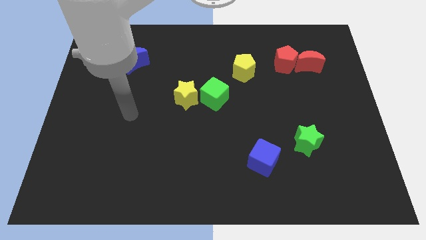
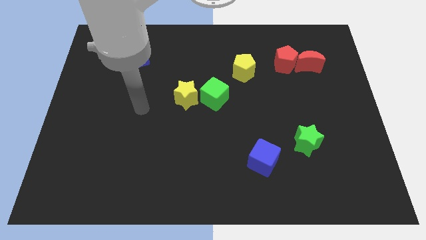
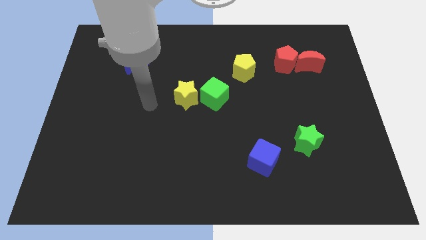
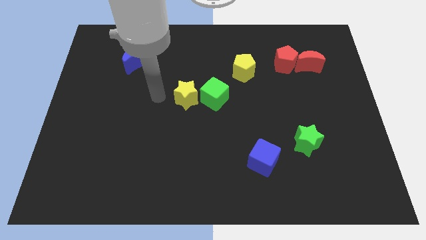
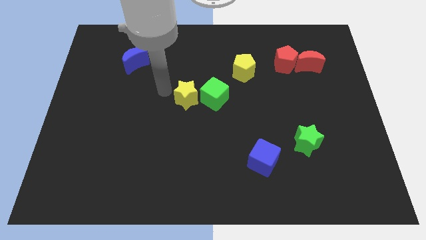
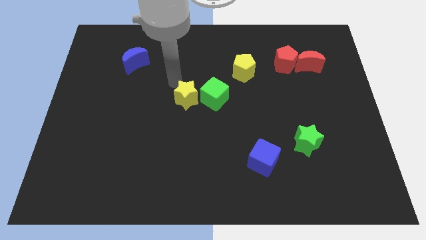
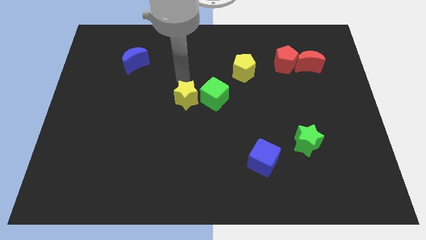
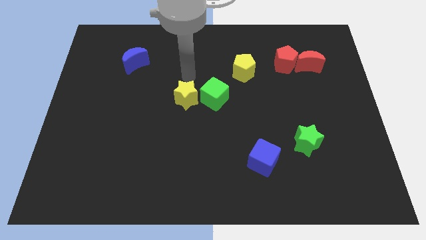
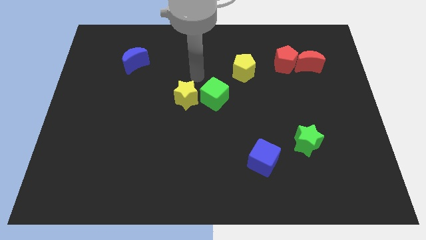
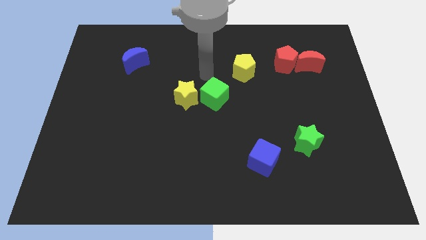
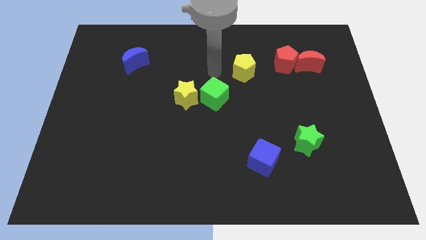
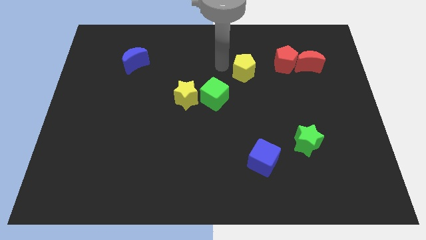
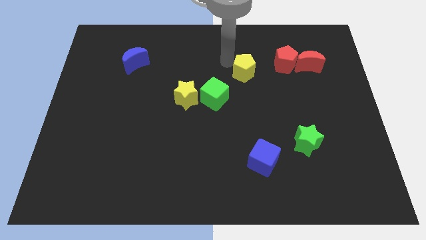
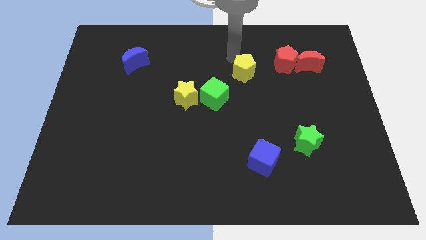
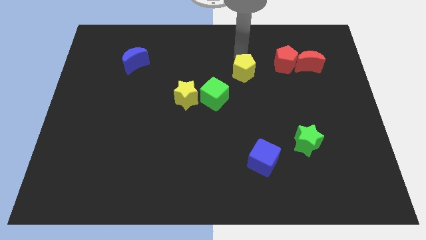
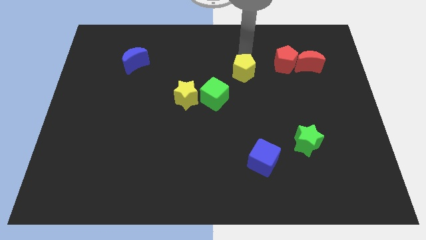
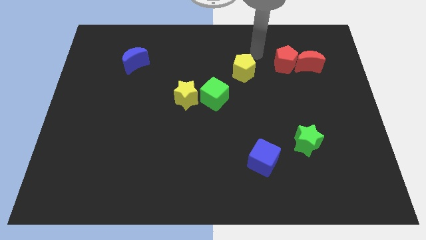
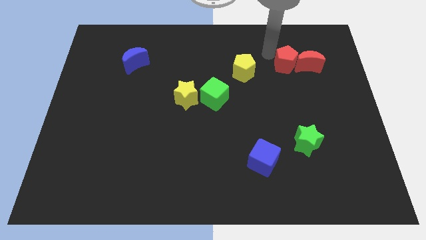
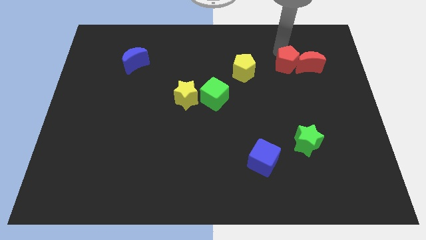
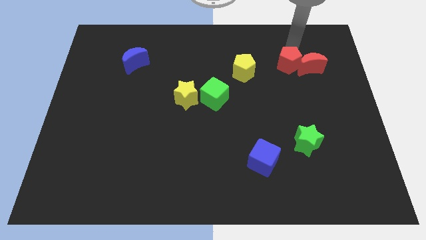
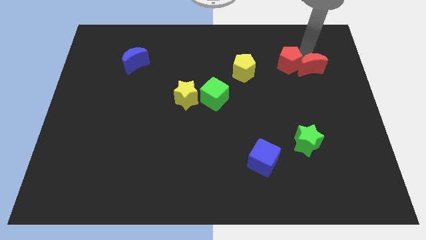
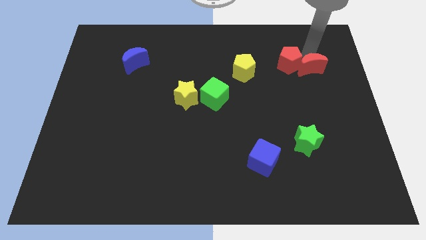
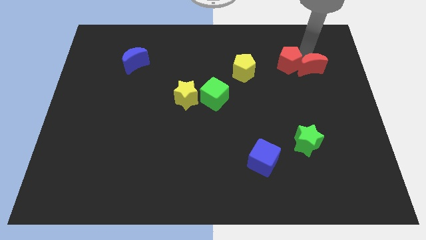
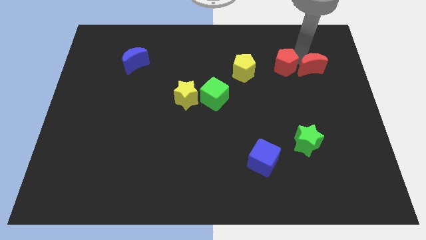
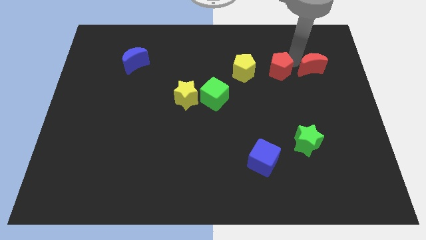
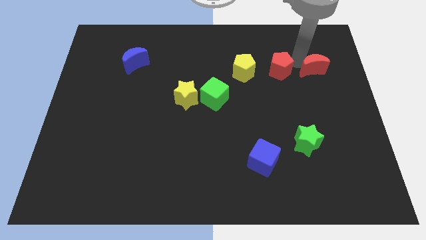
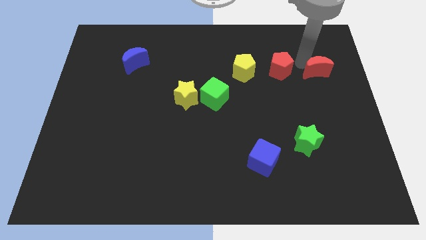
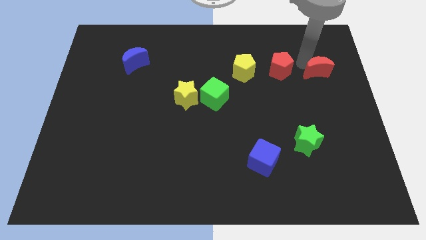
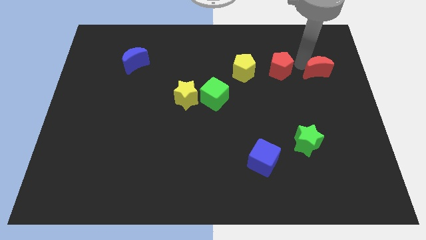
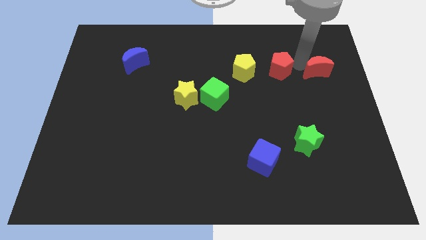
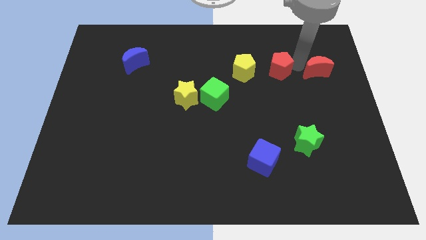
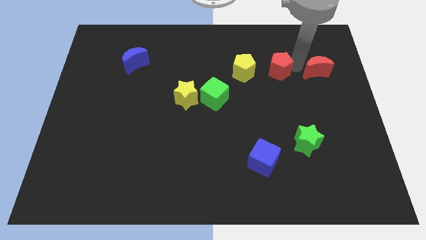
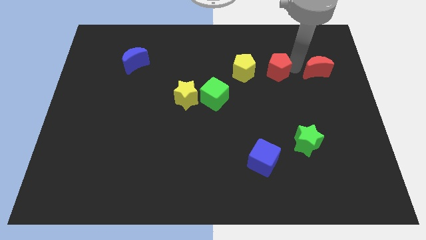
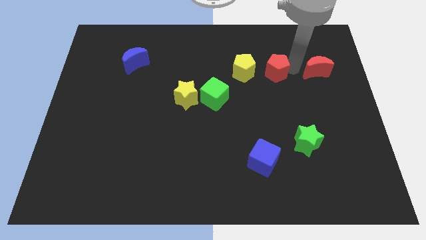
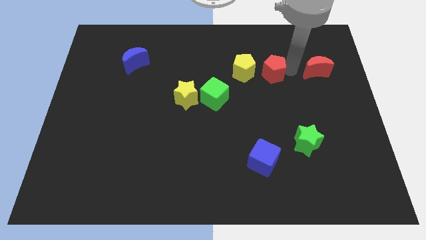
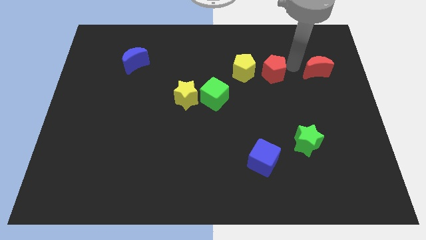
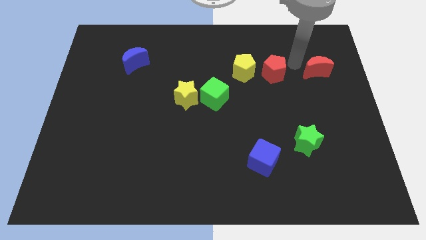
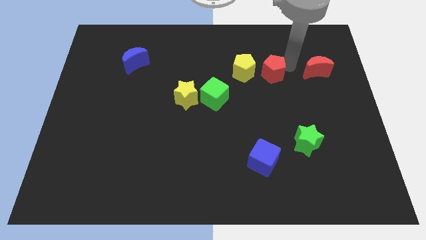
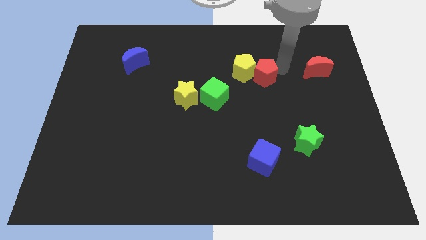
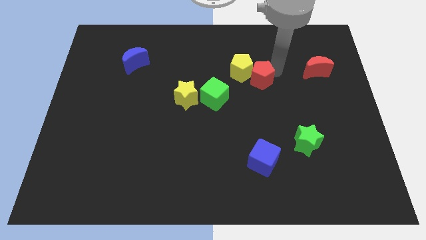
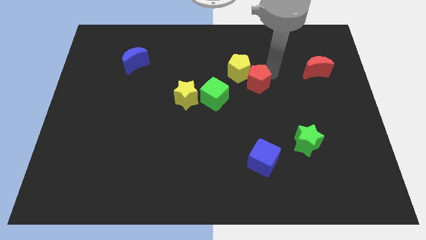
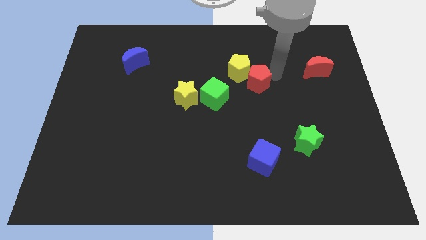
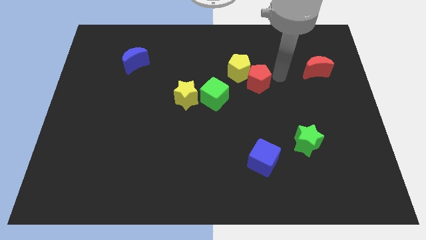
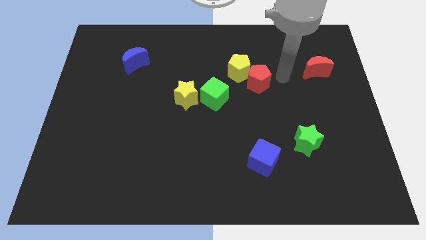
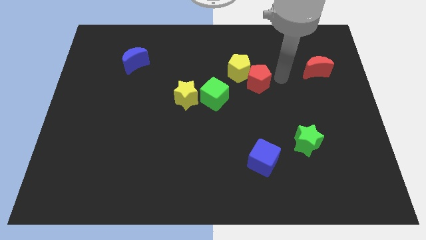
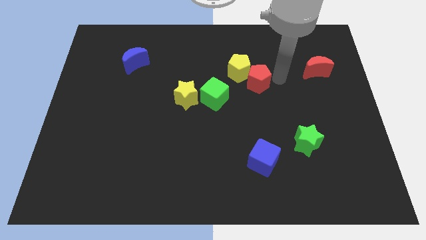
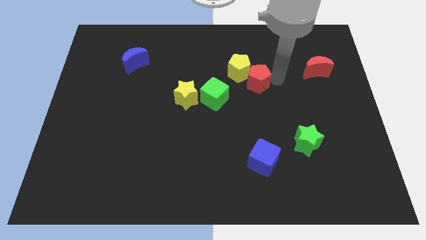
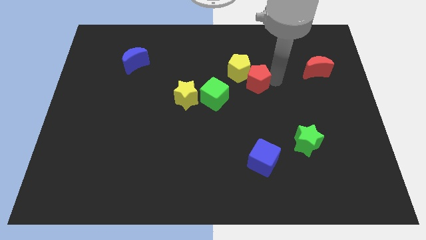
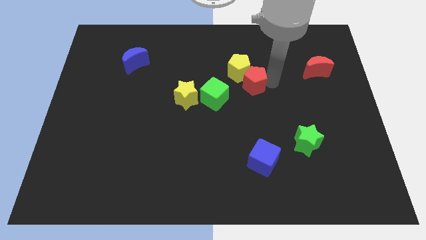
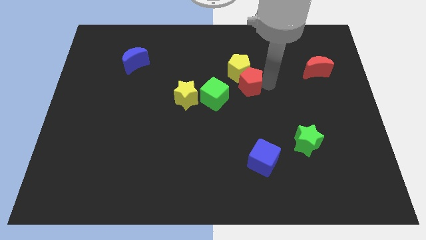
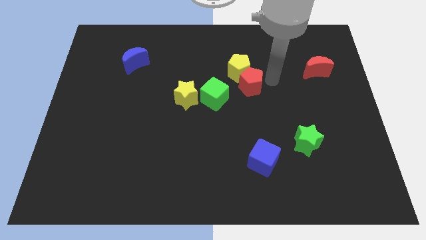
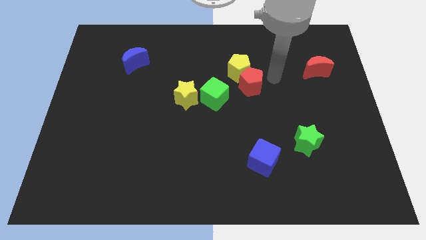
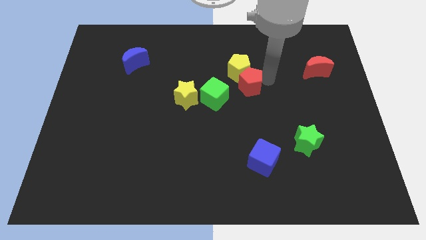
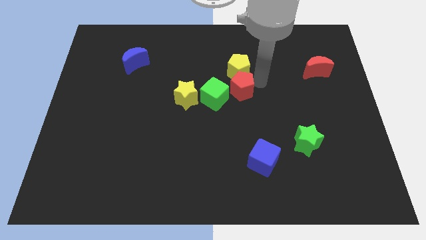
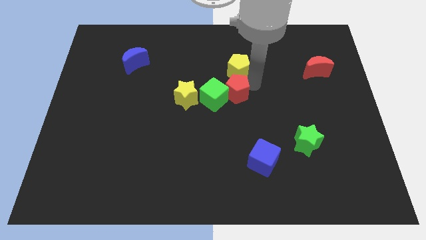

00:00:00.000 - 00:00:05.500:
move the red pentagon next to the green cube

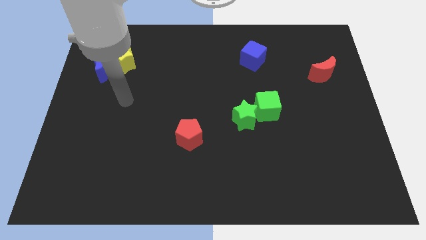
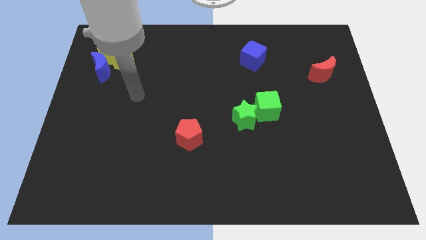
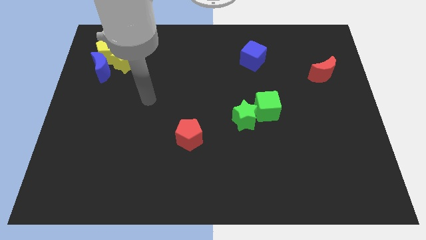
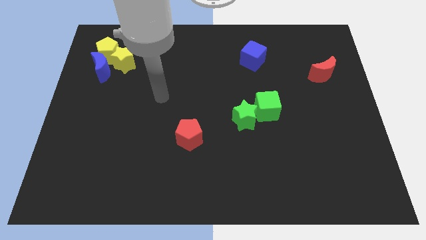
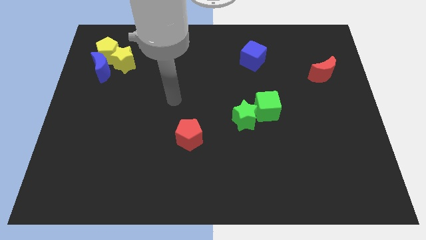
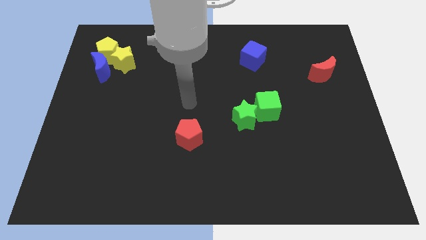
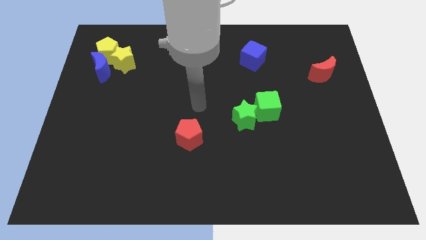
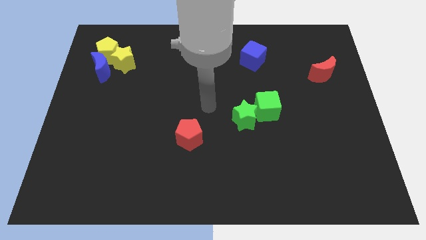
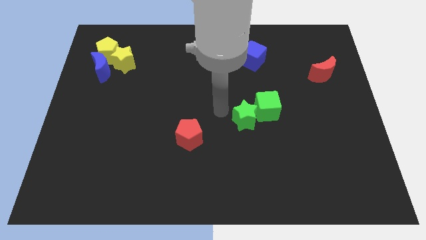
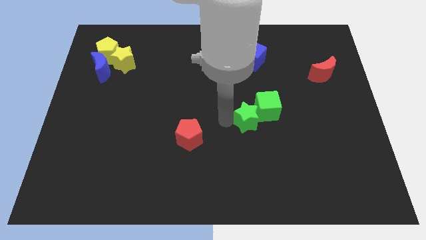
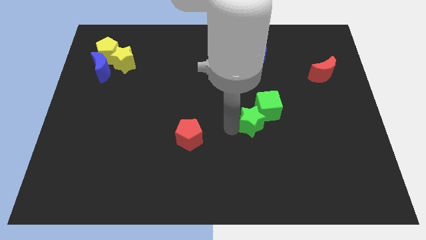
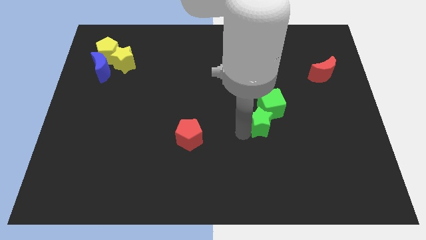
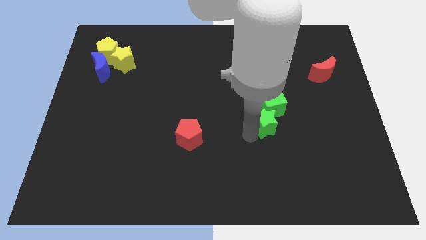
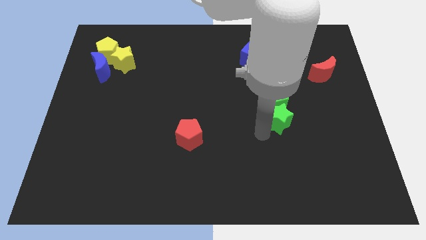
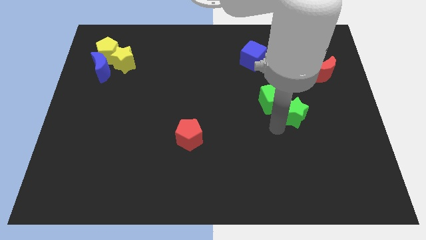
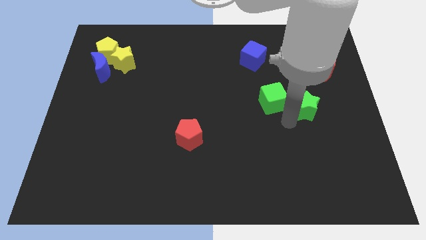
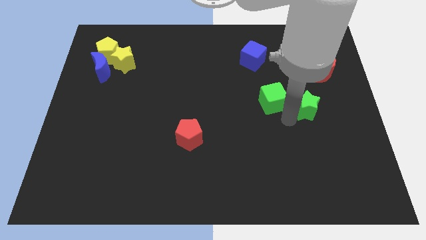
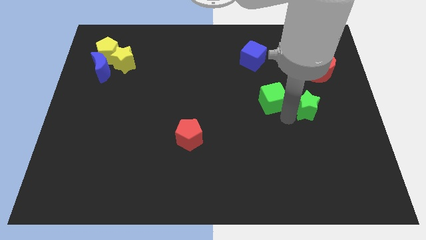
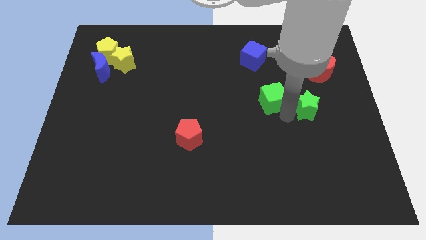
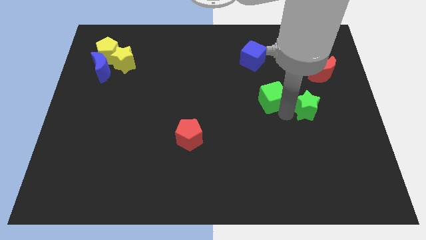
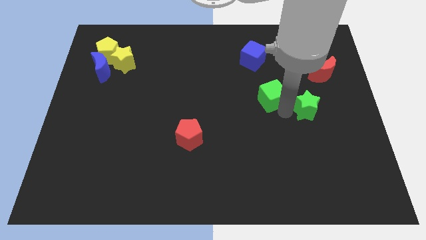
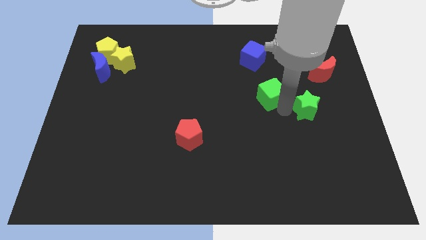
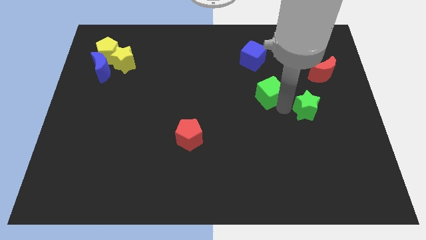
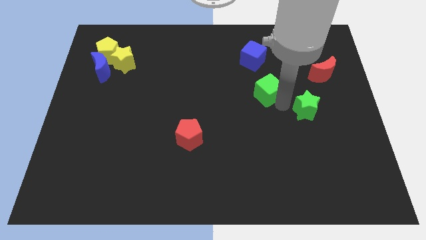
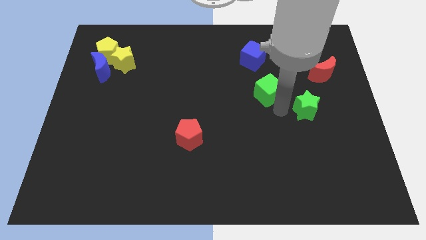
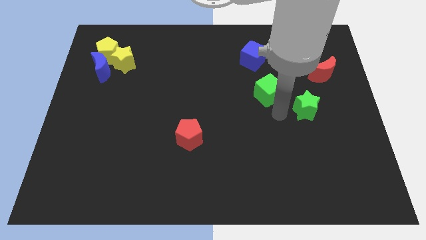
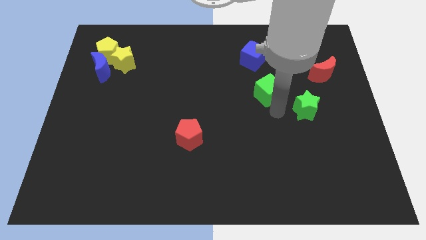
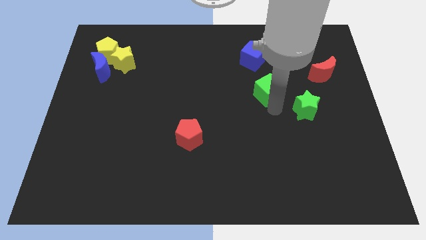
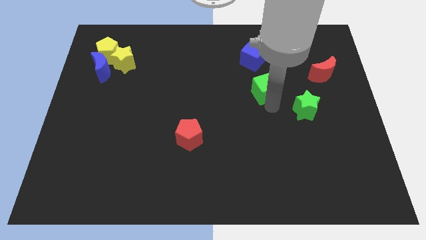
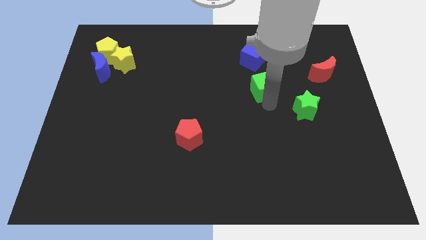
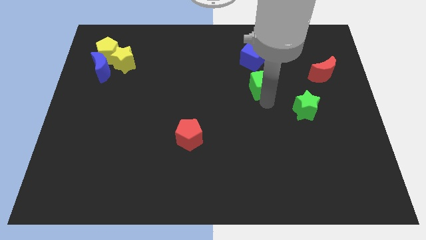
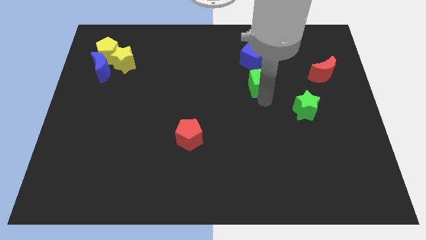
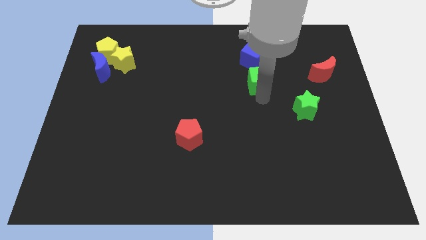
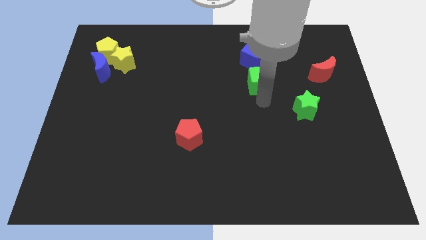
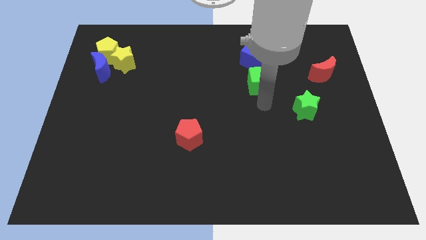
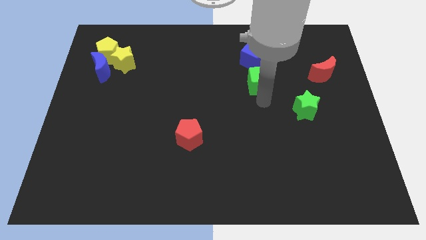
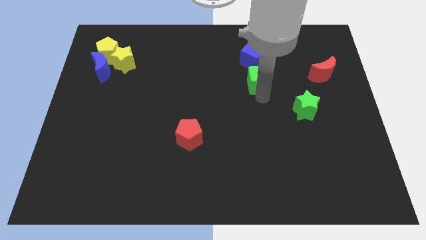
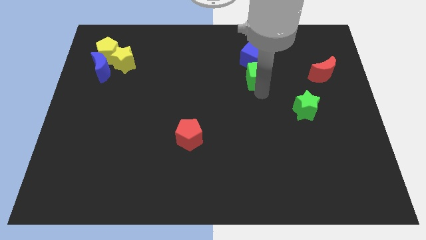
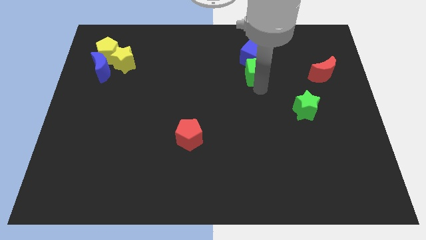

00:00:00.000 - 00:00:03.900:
move the green cube next to the blue cube
